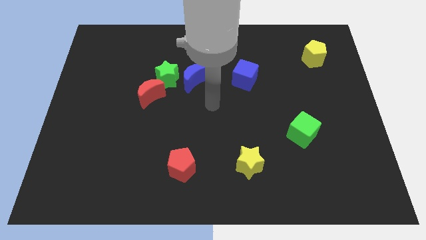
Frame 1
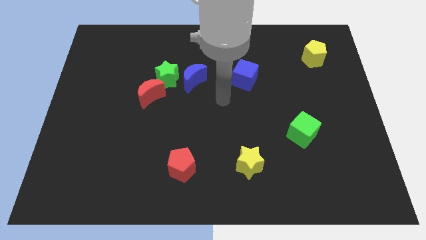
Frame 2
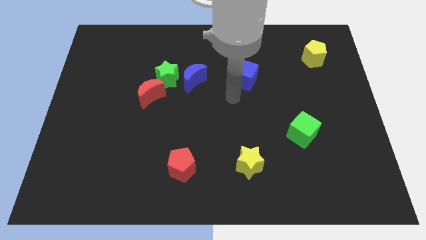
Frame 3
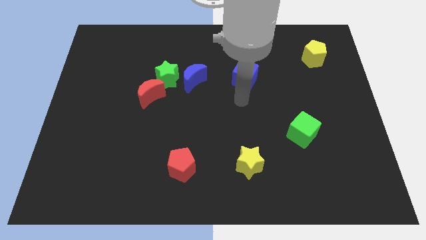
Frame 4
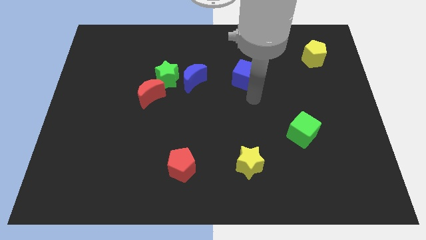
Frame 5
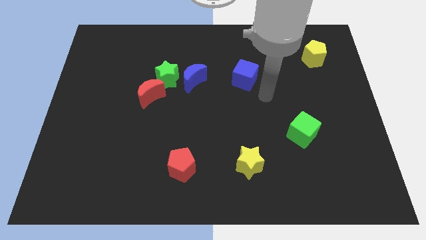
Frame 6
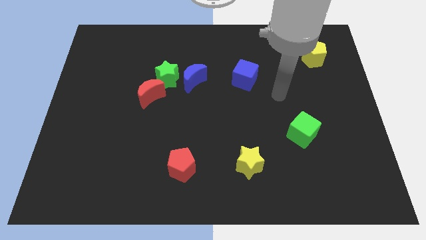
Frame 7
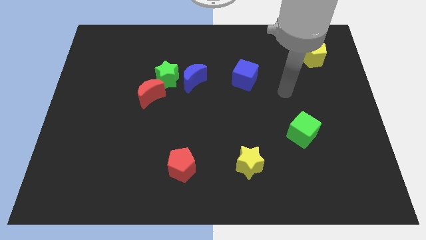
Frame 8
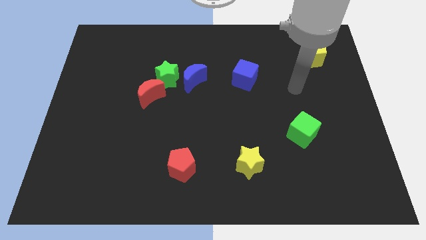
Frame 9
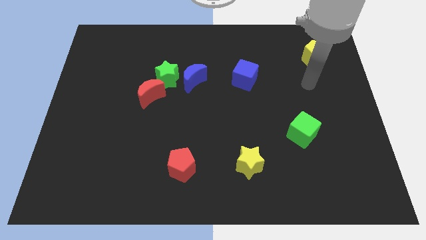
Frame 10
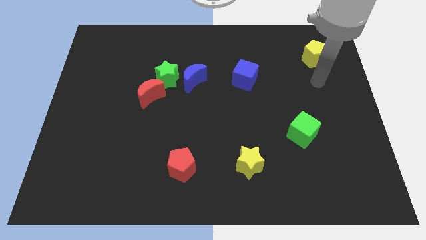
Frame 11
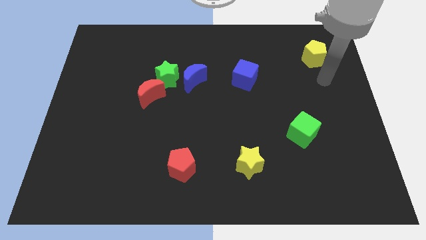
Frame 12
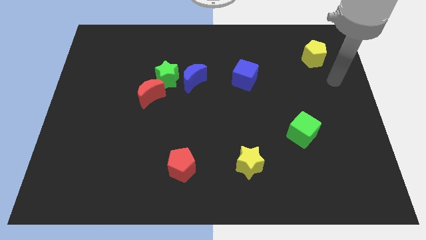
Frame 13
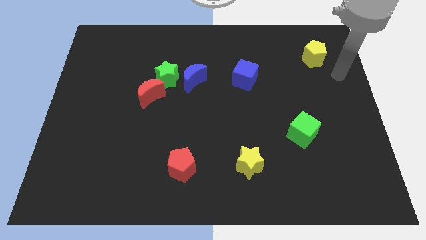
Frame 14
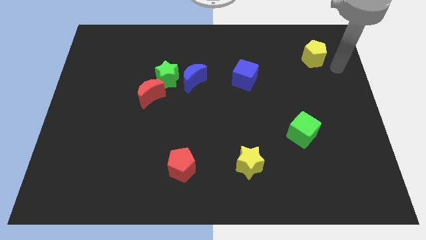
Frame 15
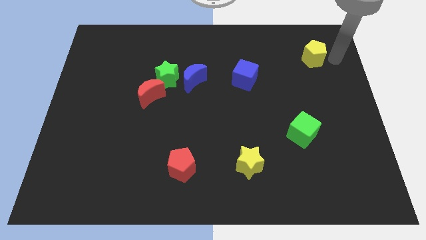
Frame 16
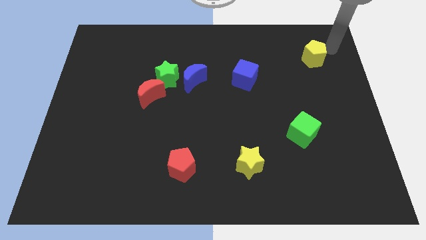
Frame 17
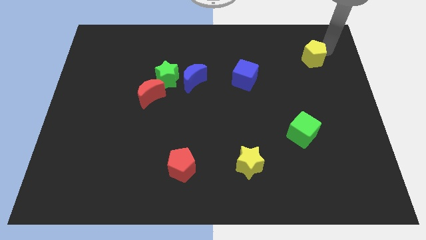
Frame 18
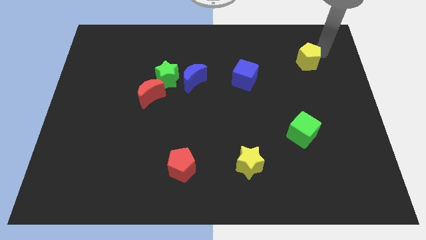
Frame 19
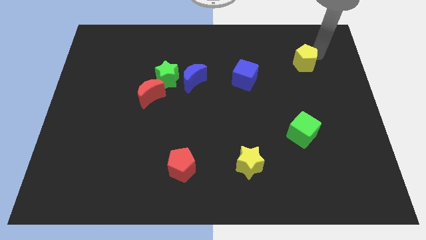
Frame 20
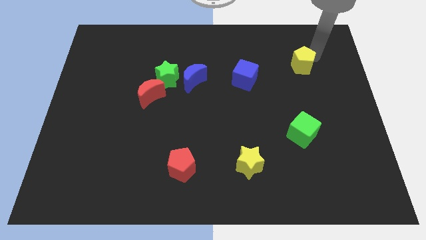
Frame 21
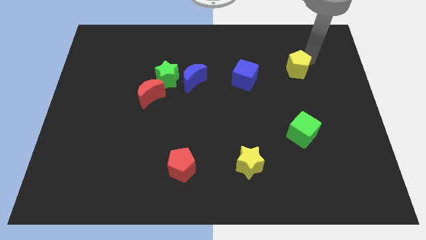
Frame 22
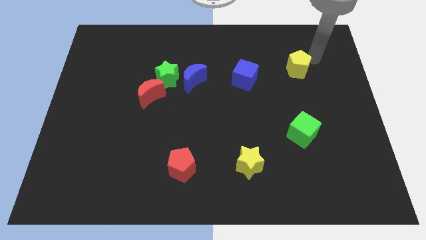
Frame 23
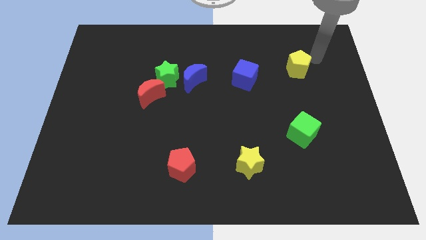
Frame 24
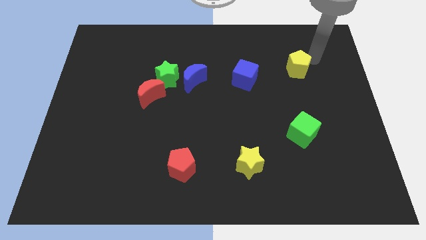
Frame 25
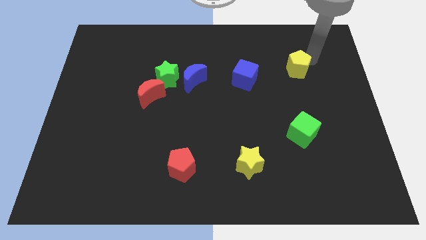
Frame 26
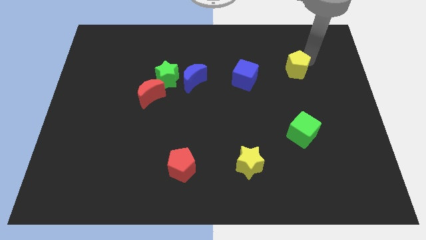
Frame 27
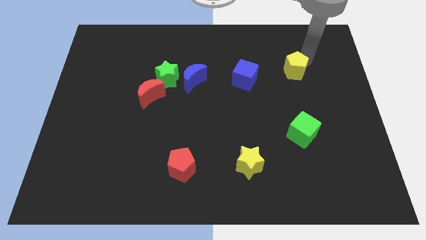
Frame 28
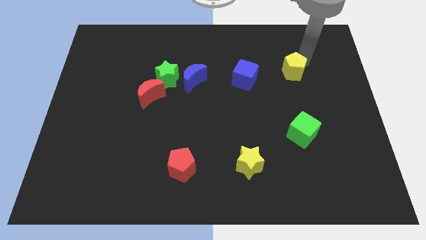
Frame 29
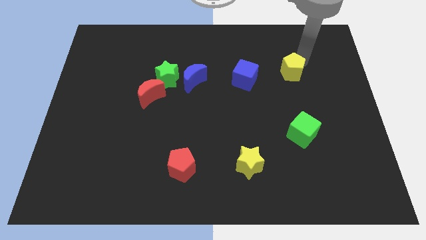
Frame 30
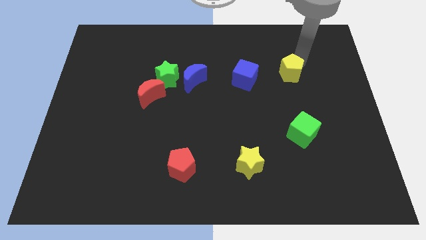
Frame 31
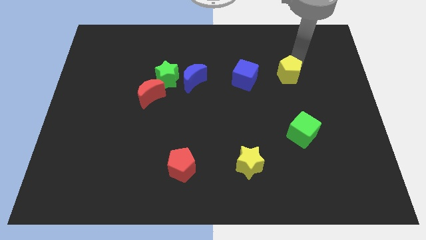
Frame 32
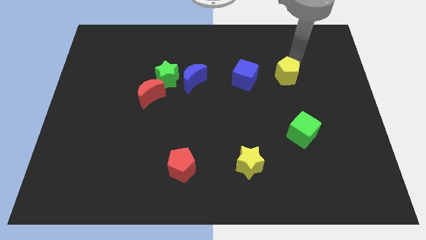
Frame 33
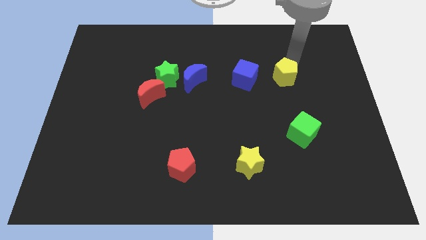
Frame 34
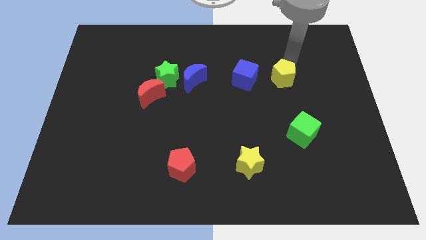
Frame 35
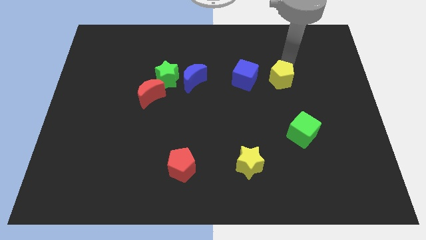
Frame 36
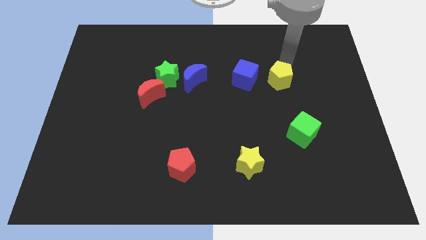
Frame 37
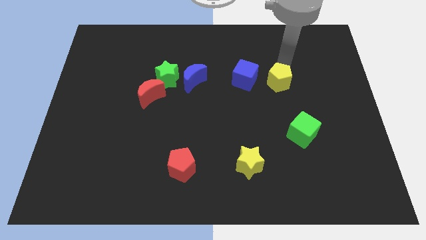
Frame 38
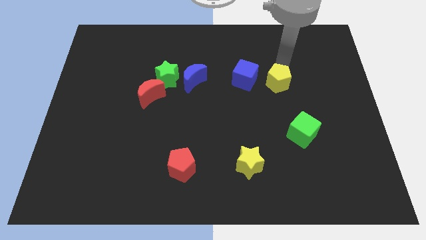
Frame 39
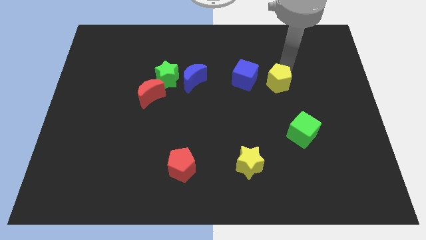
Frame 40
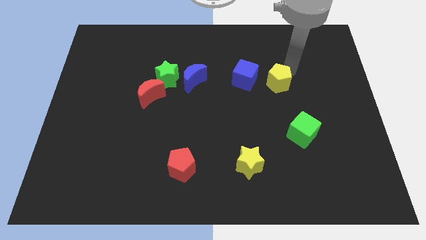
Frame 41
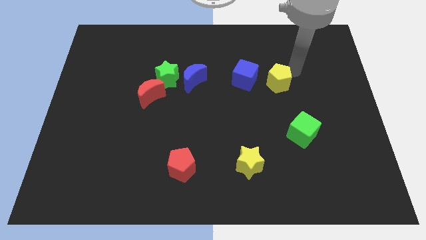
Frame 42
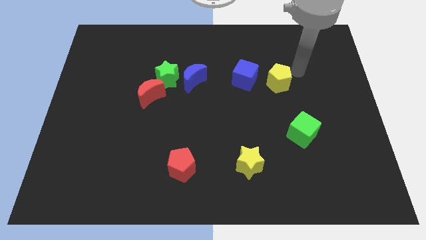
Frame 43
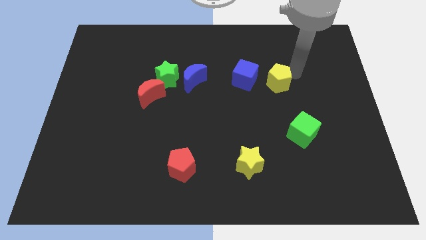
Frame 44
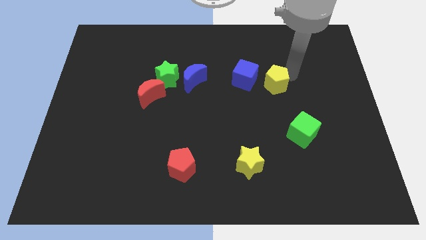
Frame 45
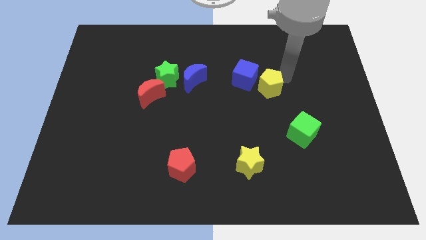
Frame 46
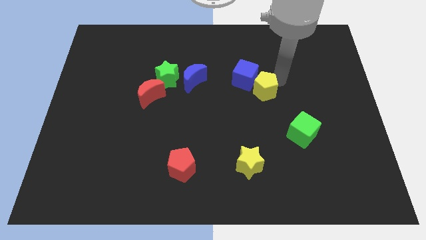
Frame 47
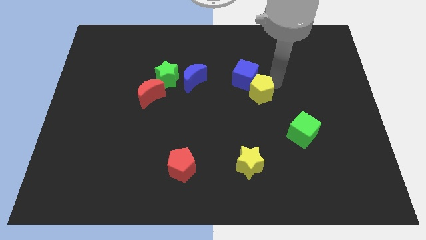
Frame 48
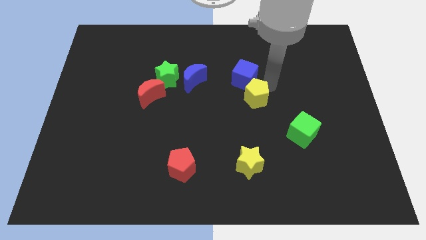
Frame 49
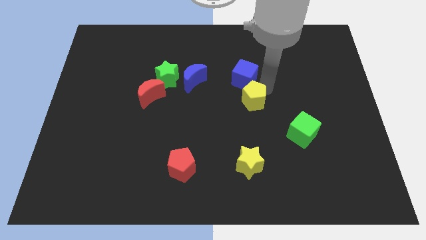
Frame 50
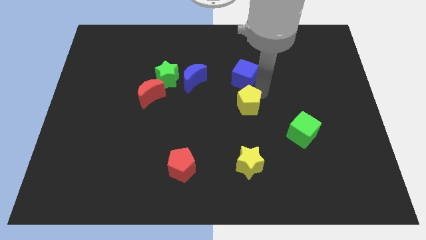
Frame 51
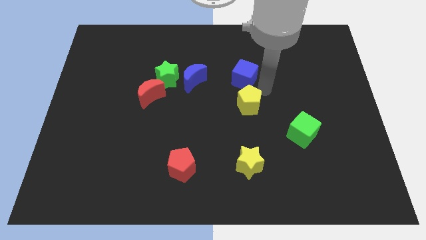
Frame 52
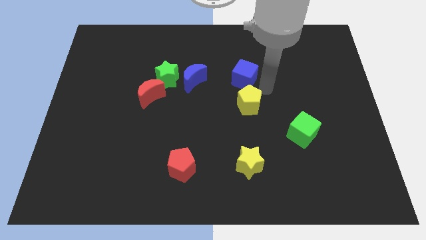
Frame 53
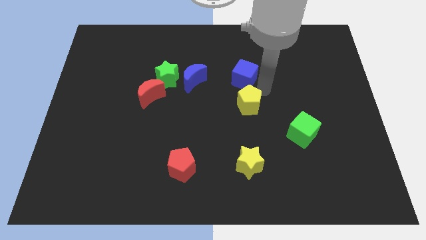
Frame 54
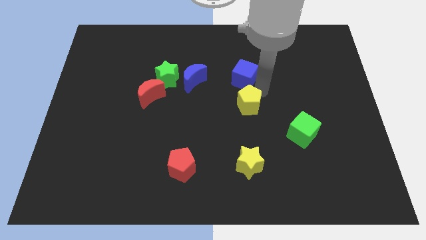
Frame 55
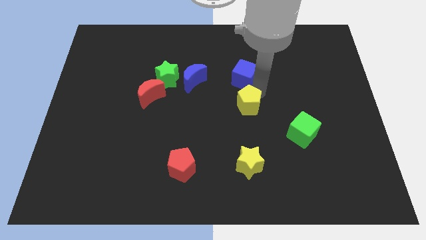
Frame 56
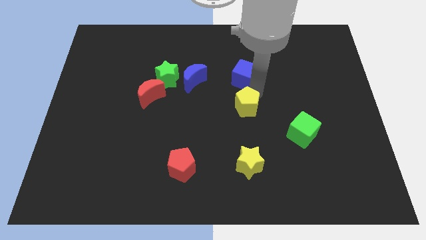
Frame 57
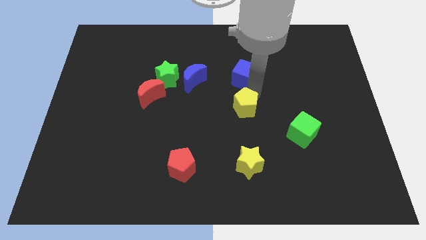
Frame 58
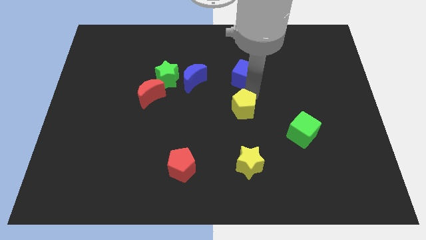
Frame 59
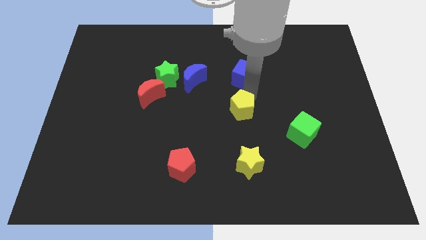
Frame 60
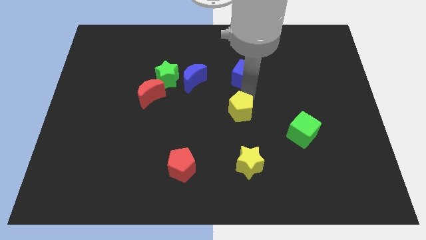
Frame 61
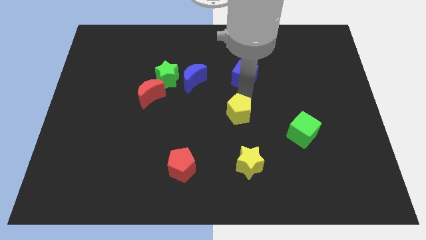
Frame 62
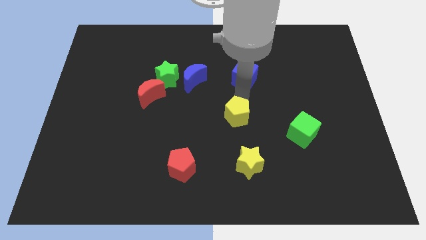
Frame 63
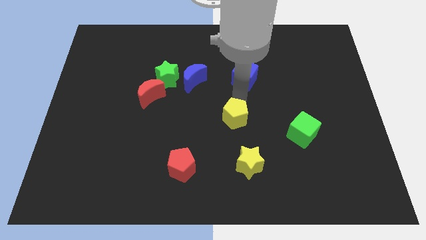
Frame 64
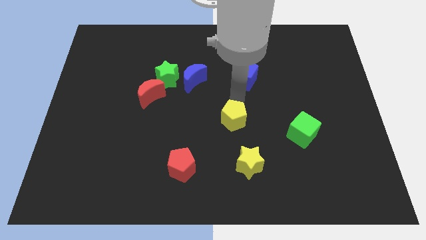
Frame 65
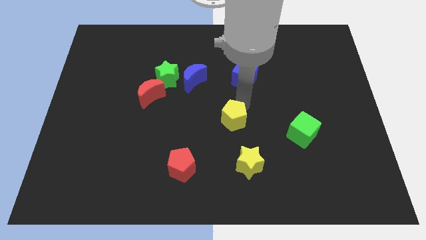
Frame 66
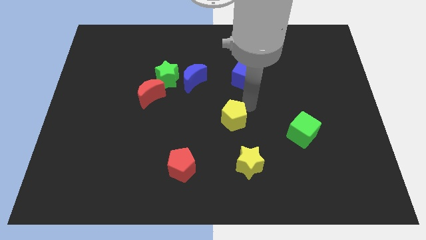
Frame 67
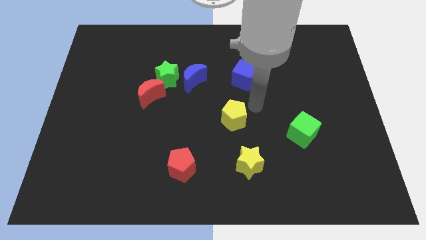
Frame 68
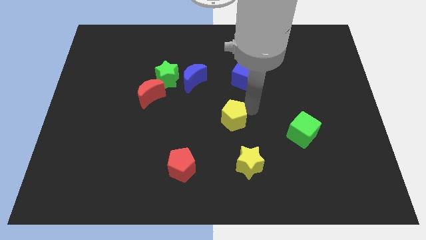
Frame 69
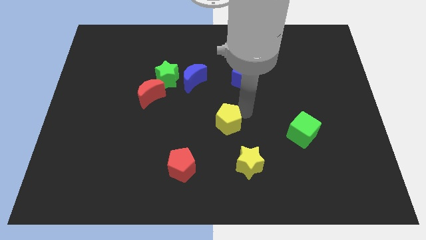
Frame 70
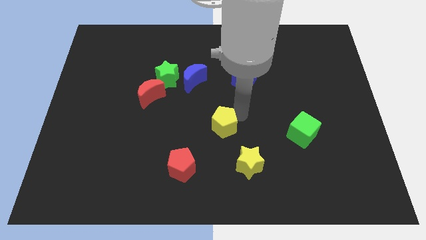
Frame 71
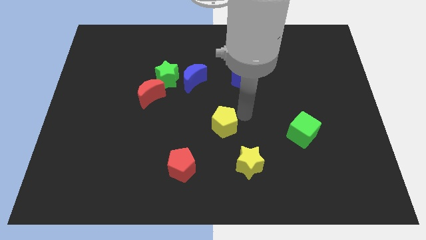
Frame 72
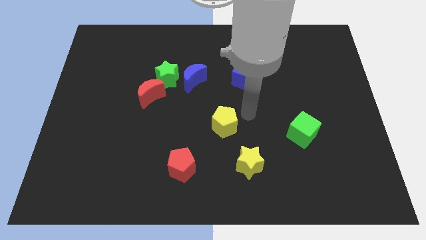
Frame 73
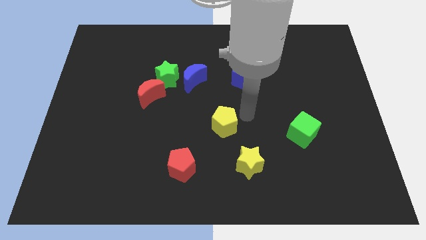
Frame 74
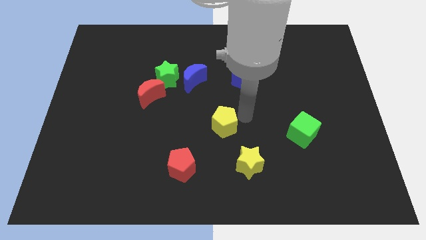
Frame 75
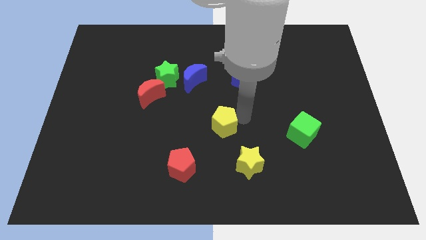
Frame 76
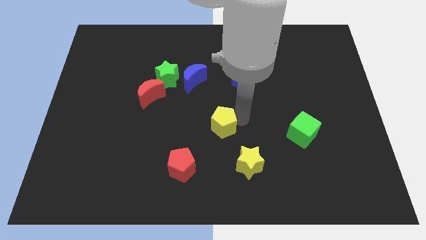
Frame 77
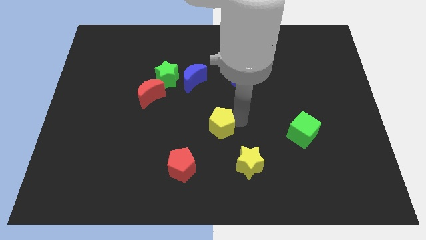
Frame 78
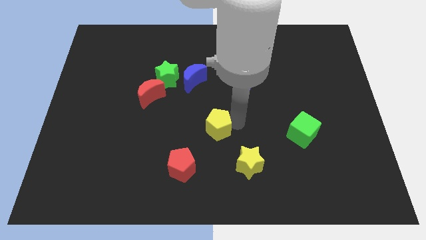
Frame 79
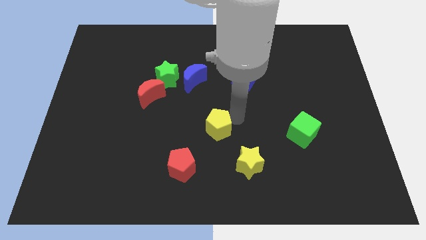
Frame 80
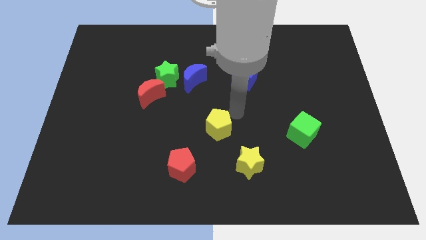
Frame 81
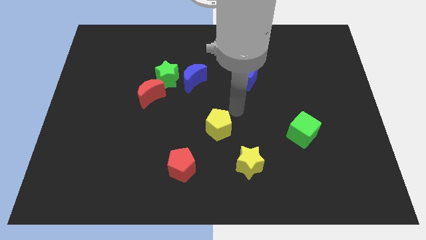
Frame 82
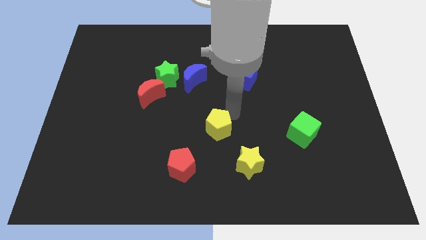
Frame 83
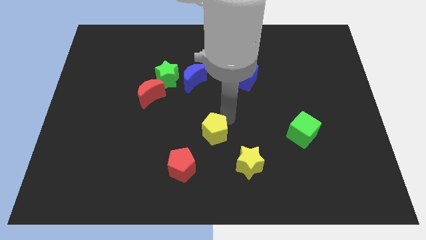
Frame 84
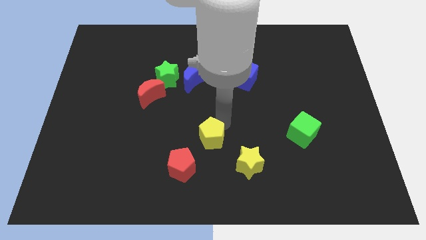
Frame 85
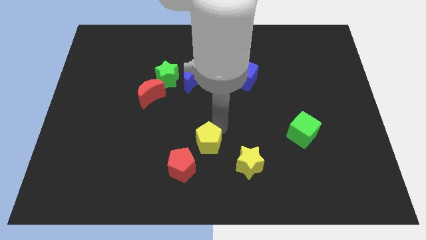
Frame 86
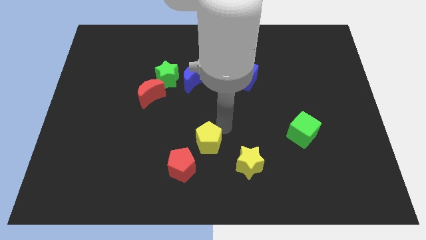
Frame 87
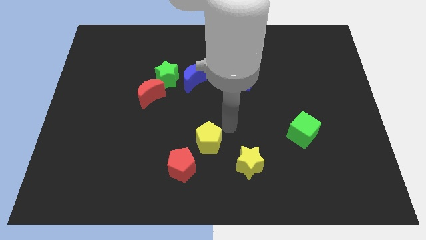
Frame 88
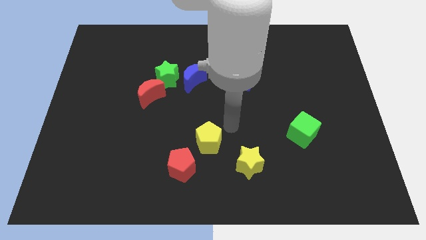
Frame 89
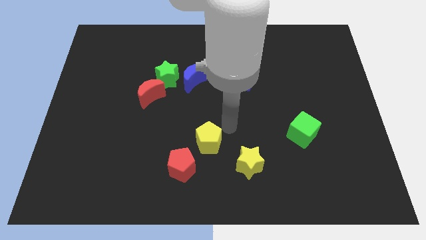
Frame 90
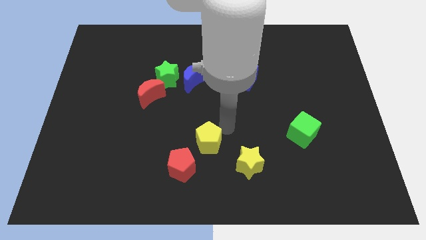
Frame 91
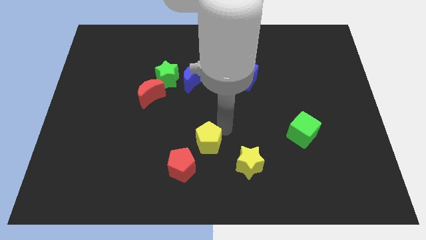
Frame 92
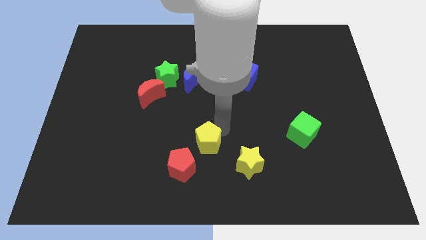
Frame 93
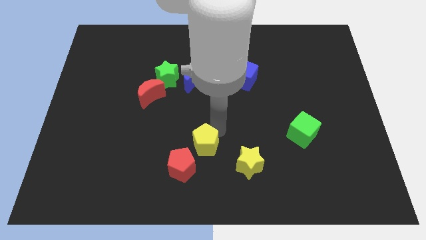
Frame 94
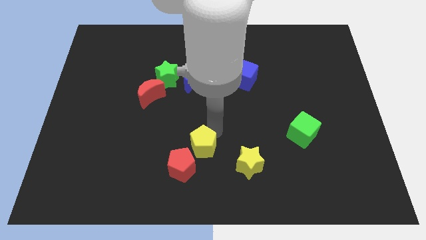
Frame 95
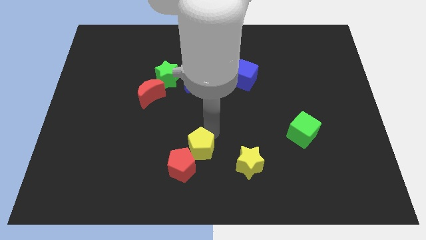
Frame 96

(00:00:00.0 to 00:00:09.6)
slide the yellow pentagon close to the red pentagon
